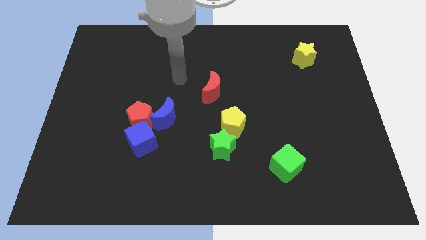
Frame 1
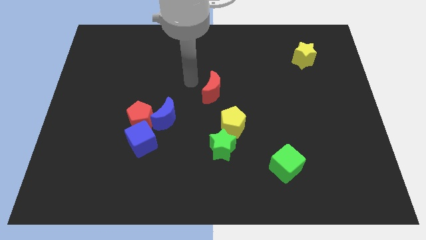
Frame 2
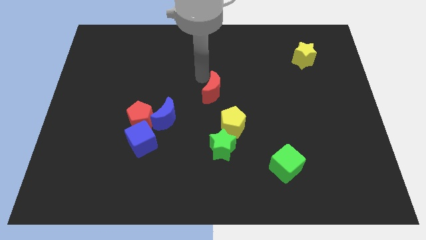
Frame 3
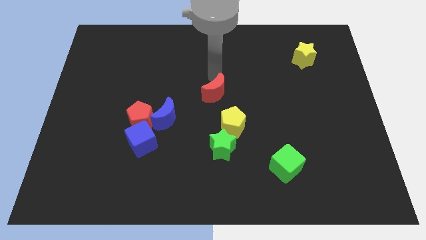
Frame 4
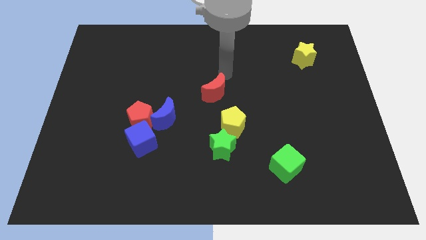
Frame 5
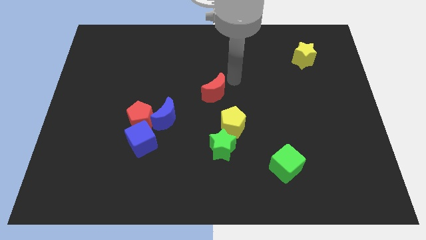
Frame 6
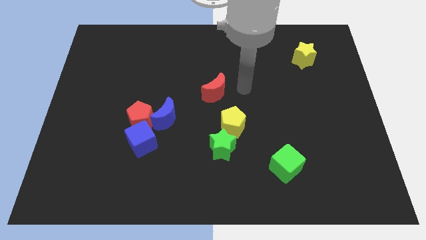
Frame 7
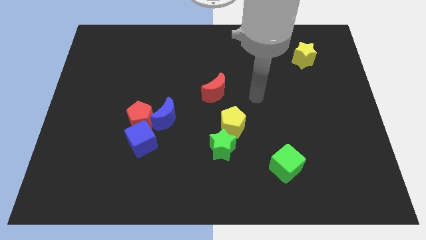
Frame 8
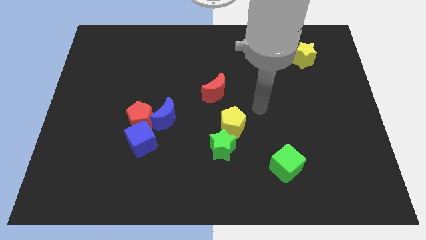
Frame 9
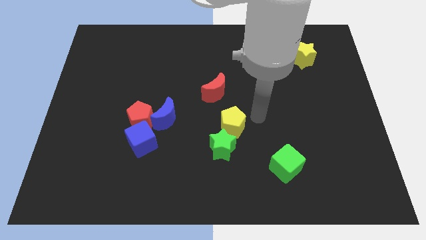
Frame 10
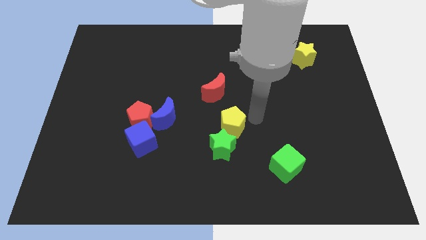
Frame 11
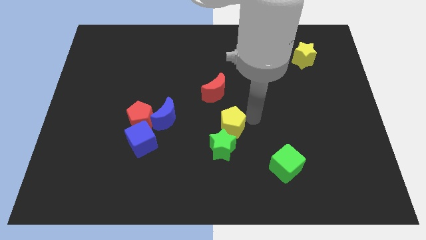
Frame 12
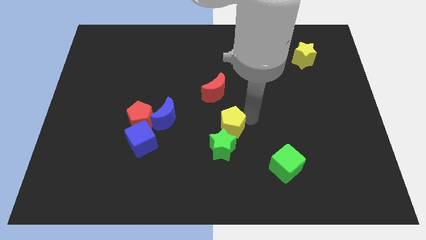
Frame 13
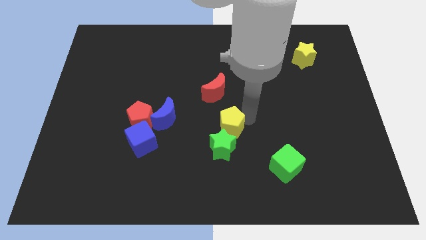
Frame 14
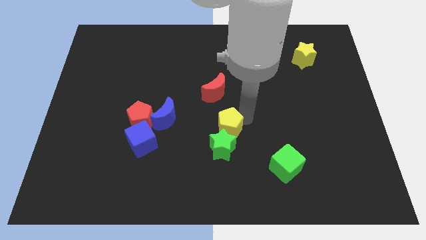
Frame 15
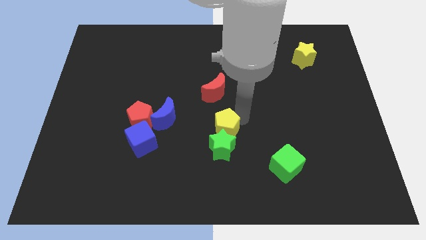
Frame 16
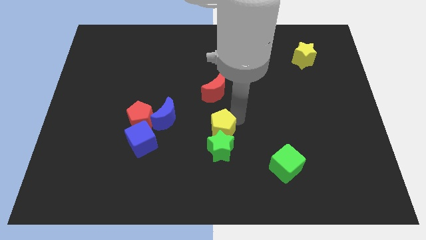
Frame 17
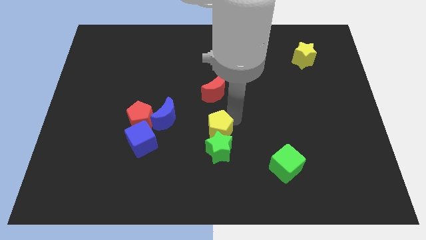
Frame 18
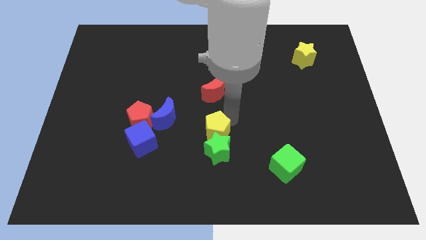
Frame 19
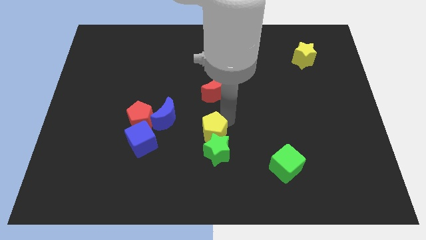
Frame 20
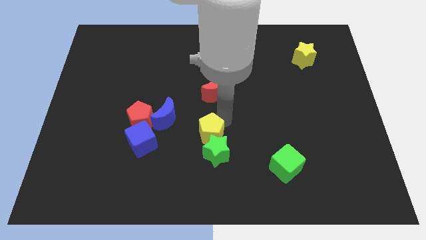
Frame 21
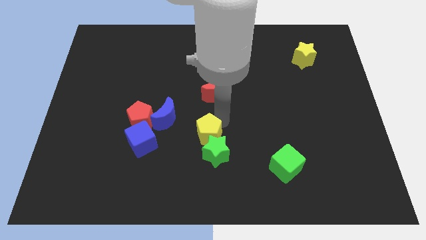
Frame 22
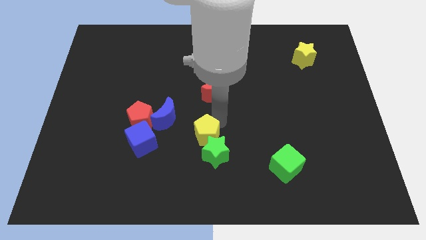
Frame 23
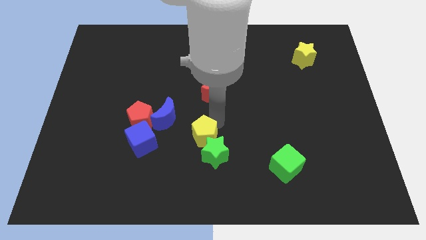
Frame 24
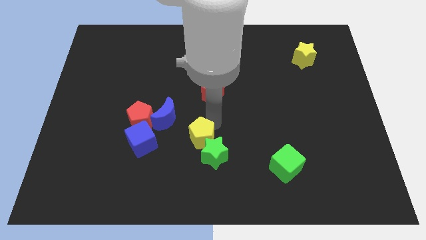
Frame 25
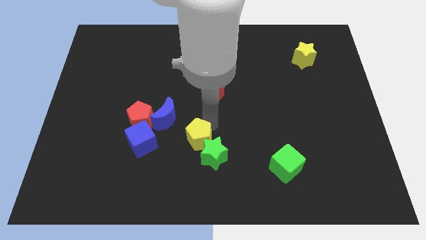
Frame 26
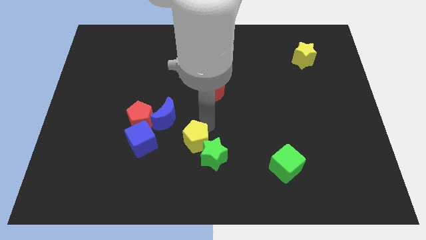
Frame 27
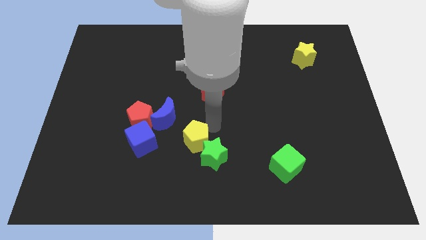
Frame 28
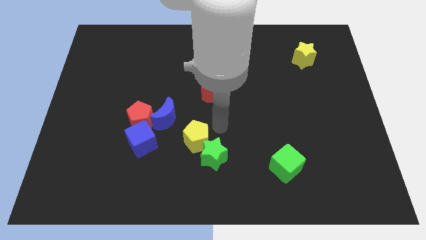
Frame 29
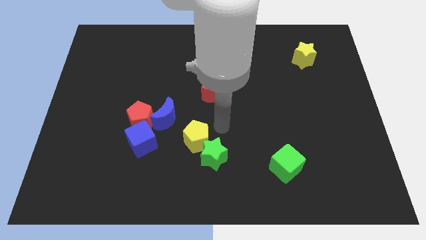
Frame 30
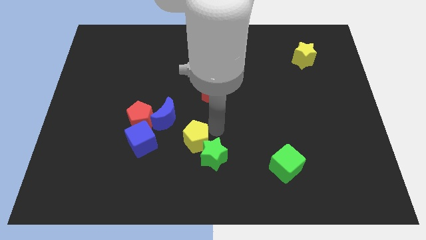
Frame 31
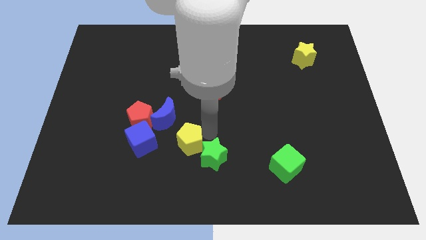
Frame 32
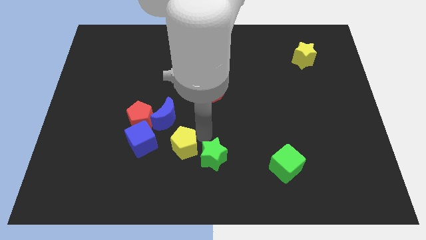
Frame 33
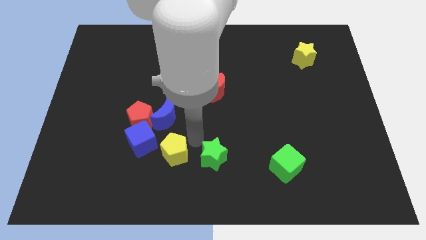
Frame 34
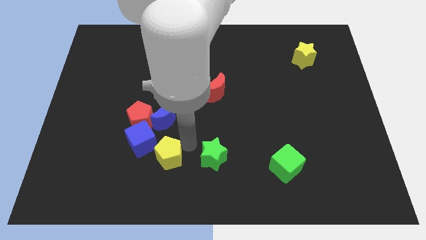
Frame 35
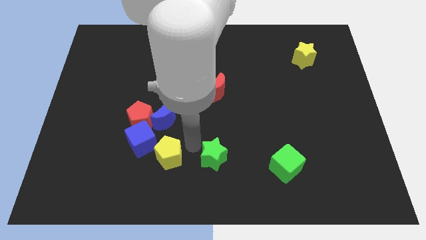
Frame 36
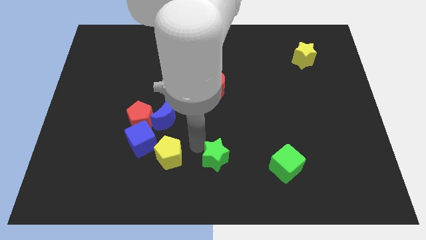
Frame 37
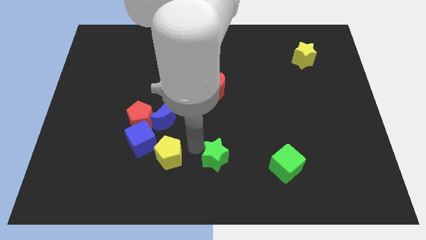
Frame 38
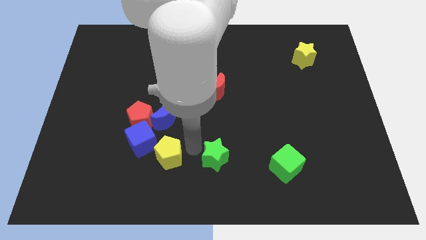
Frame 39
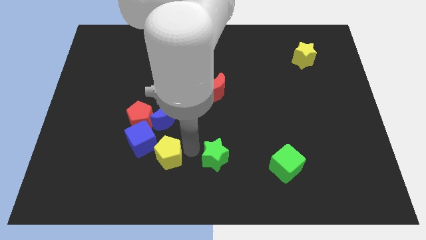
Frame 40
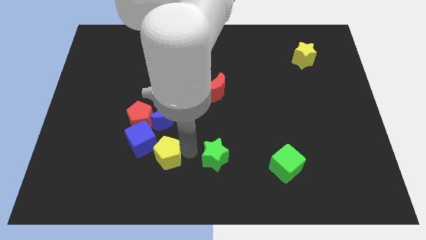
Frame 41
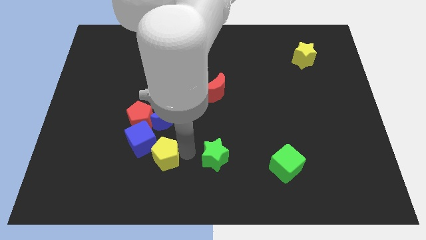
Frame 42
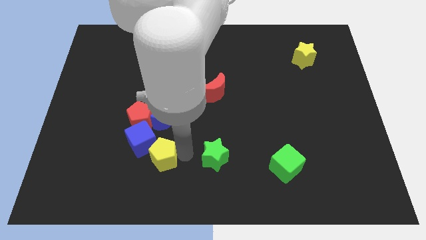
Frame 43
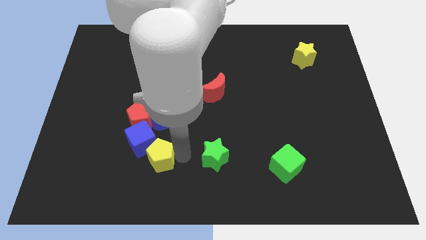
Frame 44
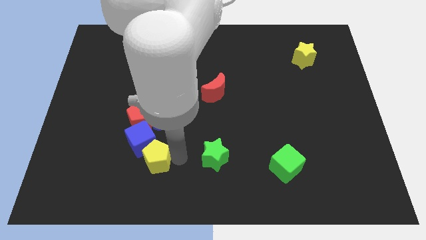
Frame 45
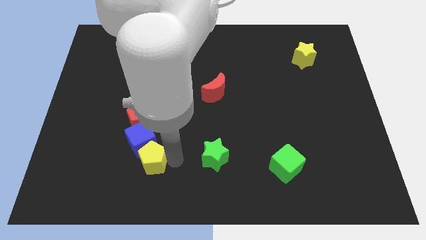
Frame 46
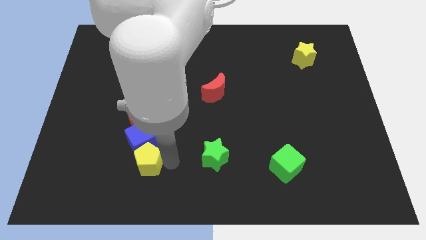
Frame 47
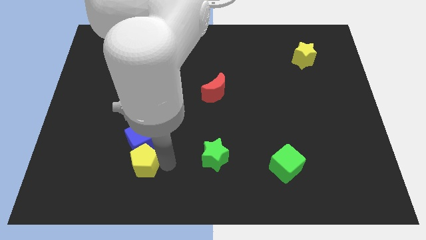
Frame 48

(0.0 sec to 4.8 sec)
move the yellow pentagon diagonally down and to the left of the blue cube

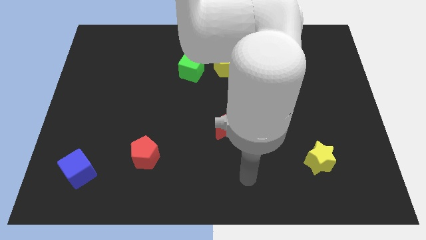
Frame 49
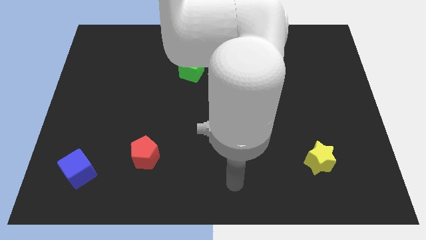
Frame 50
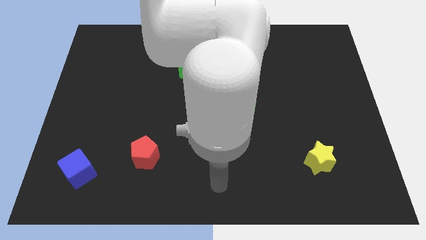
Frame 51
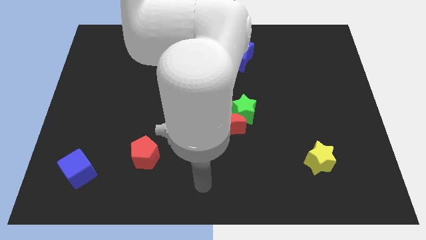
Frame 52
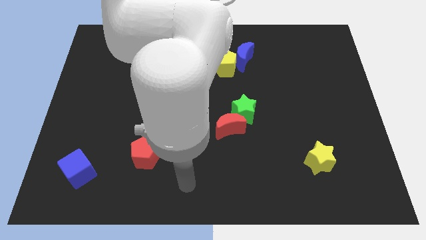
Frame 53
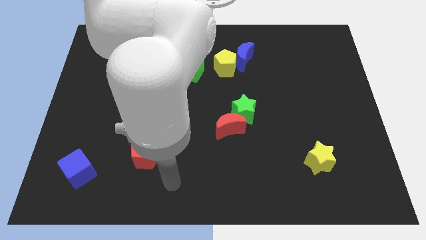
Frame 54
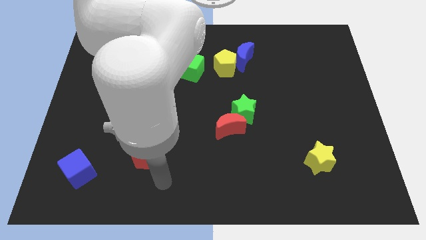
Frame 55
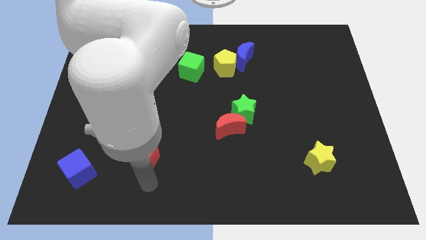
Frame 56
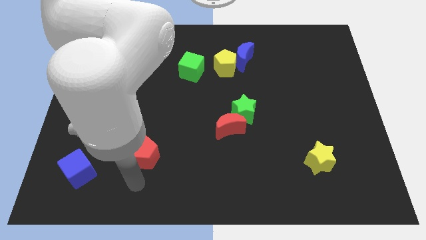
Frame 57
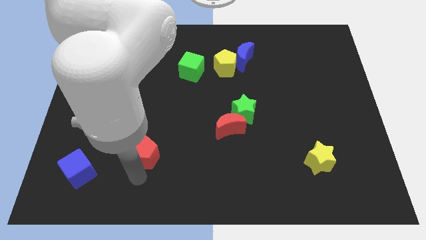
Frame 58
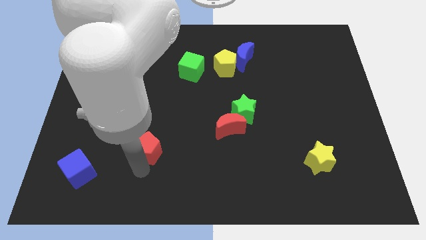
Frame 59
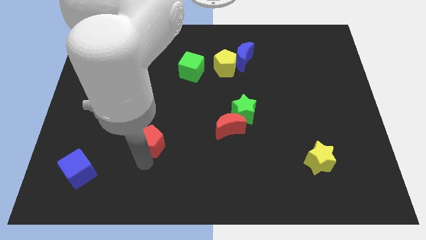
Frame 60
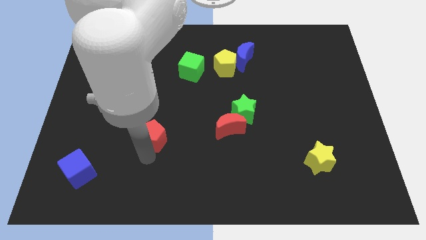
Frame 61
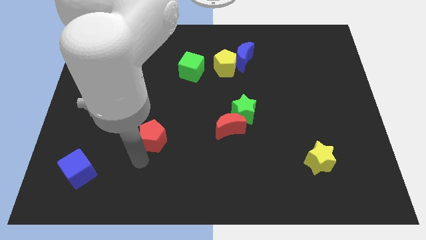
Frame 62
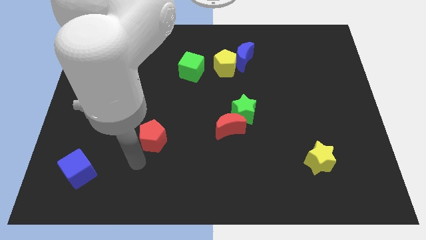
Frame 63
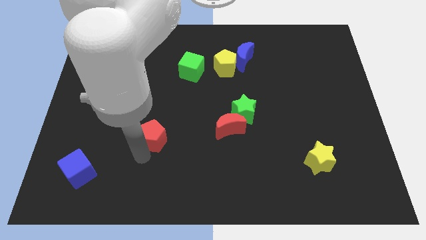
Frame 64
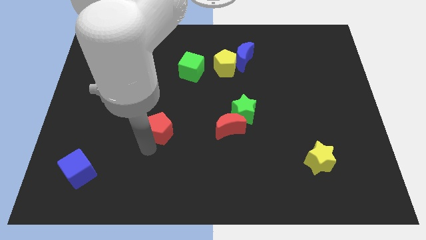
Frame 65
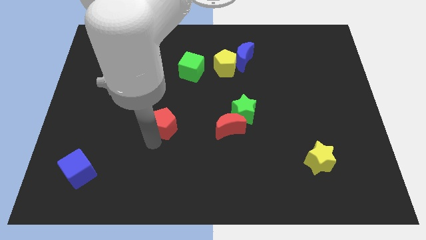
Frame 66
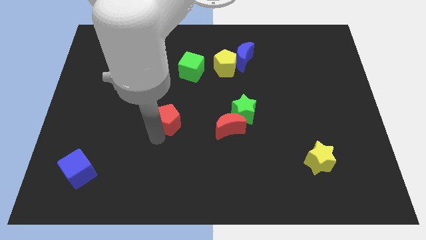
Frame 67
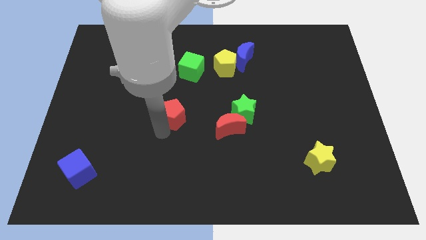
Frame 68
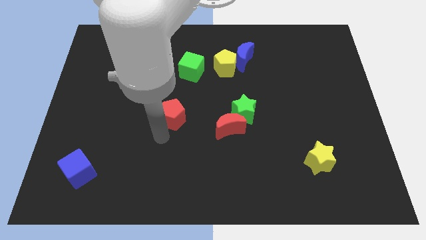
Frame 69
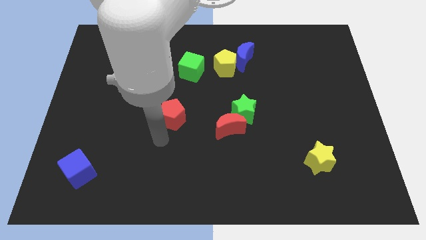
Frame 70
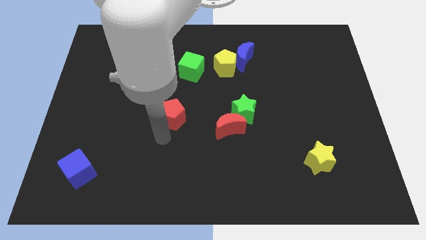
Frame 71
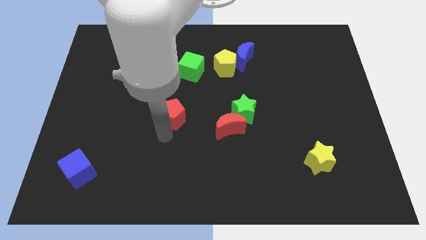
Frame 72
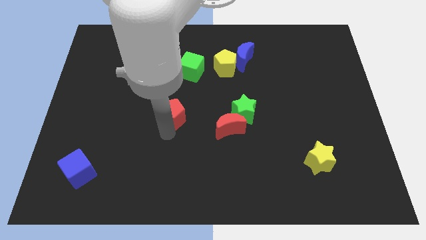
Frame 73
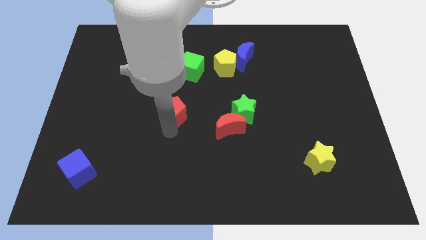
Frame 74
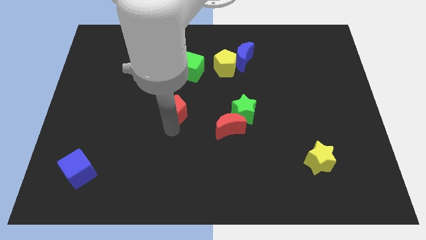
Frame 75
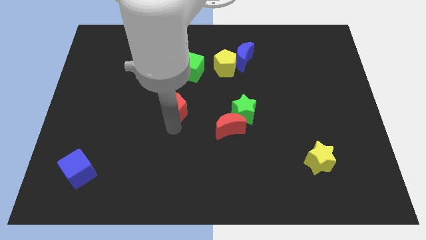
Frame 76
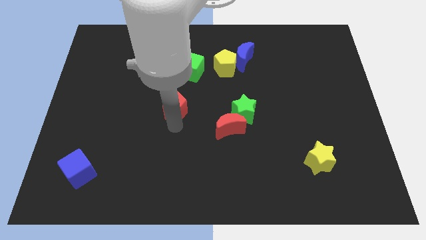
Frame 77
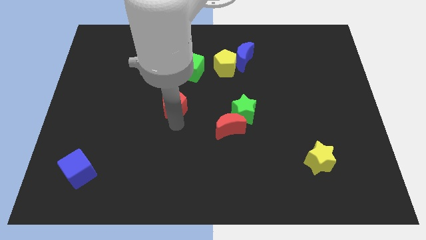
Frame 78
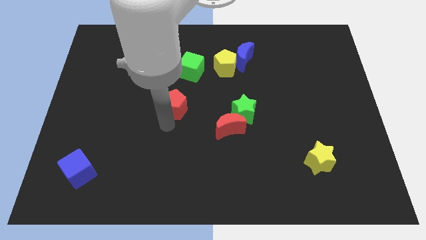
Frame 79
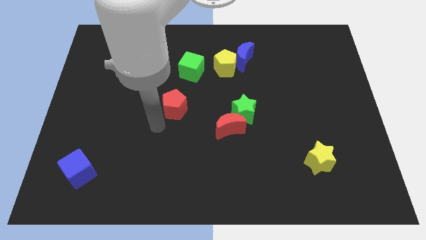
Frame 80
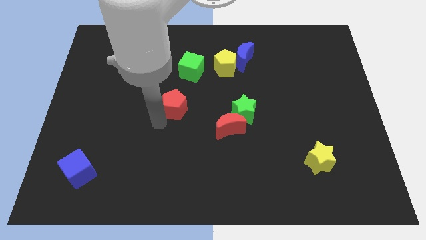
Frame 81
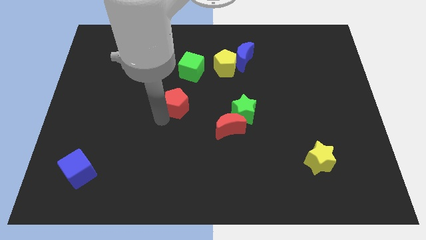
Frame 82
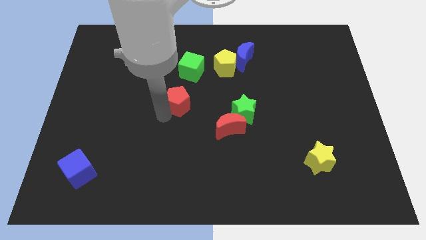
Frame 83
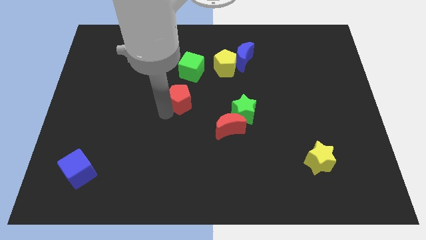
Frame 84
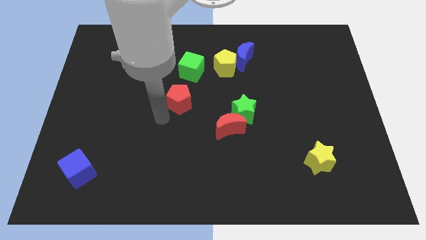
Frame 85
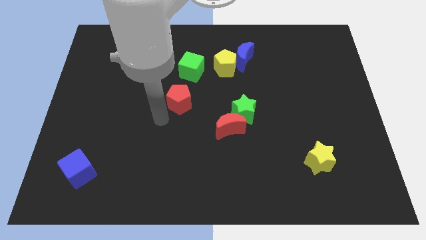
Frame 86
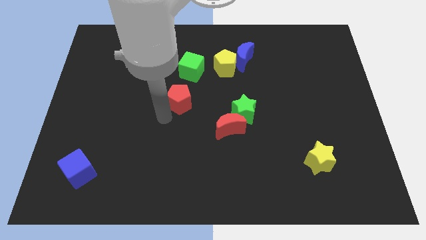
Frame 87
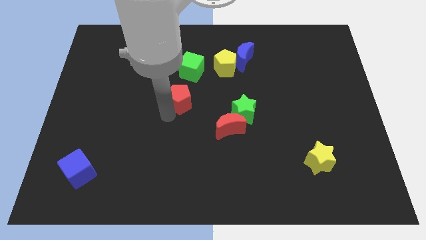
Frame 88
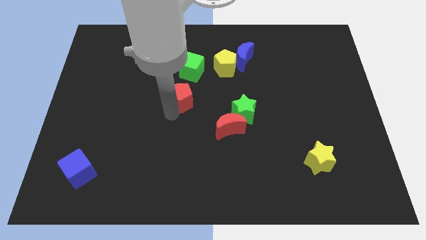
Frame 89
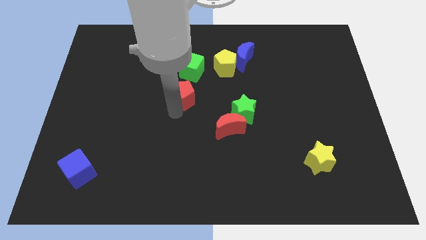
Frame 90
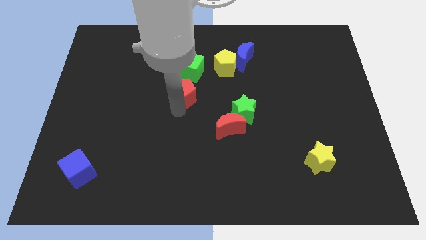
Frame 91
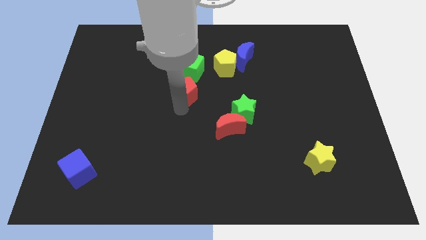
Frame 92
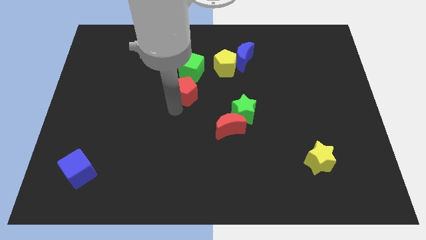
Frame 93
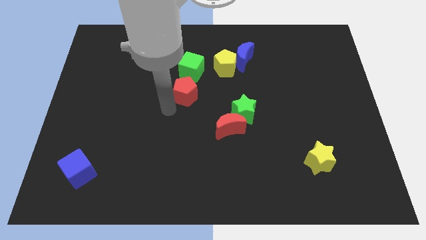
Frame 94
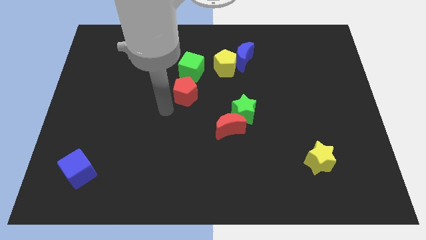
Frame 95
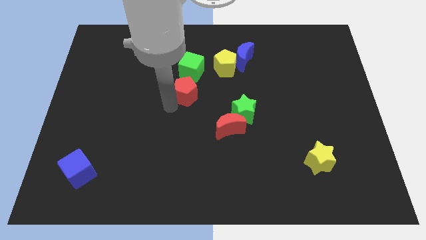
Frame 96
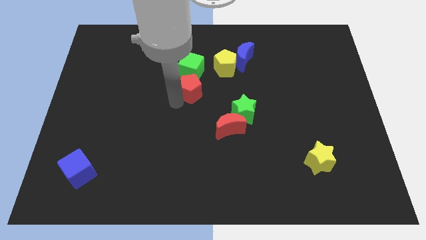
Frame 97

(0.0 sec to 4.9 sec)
move the red pentagon diagonally down and to the left of the yellow pentagon
